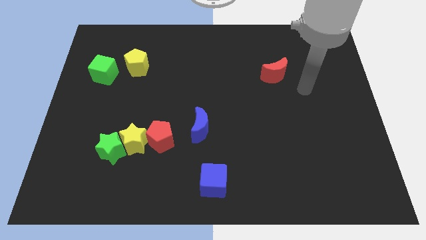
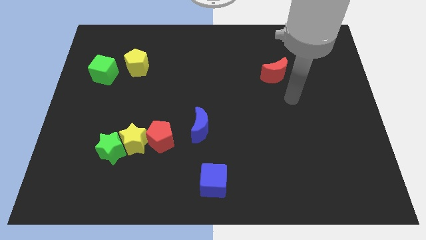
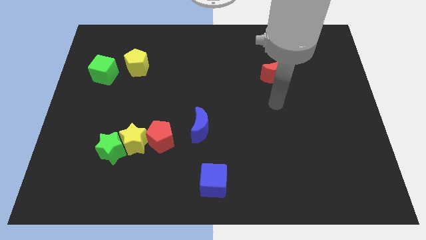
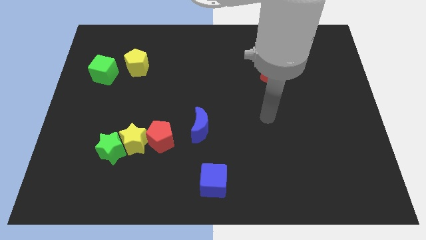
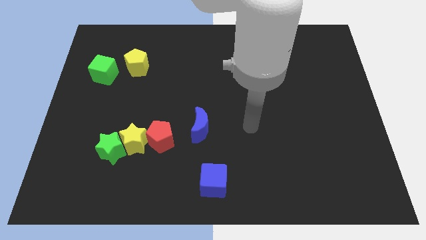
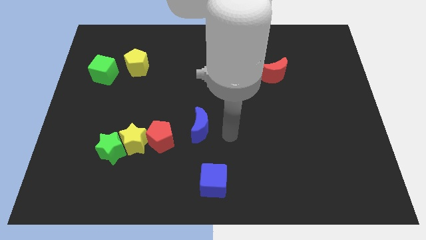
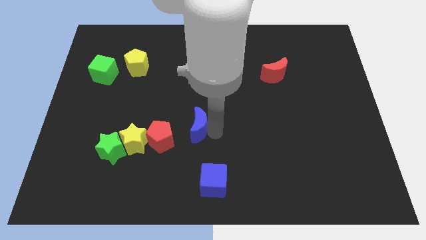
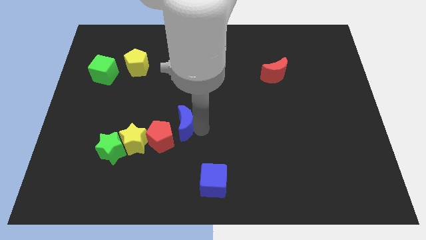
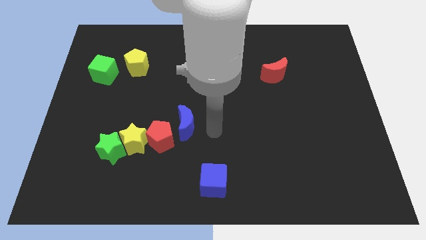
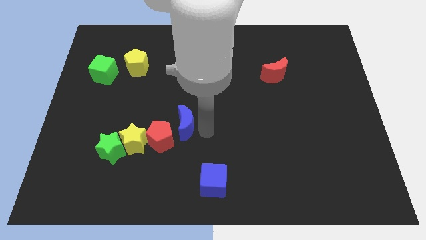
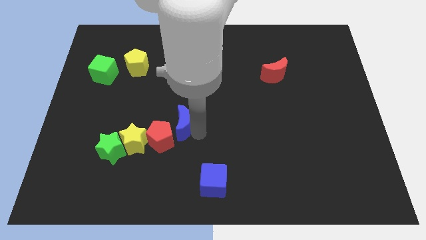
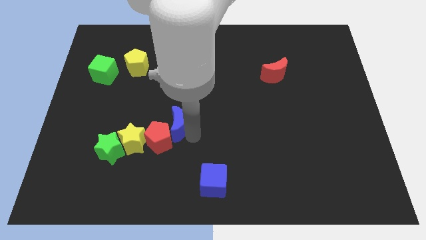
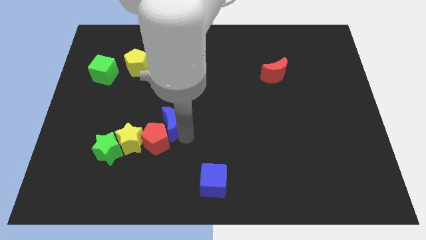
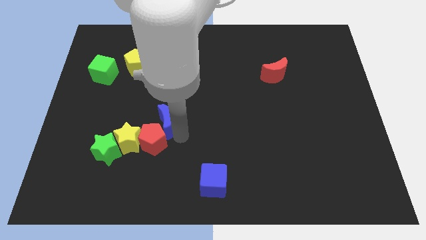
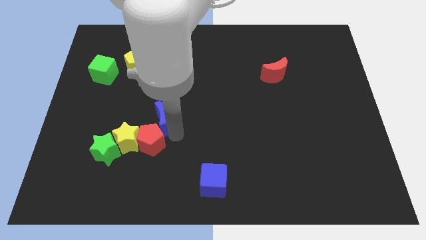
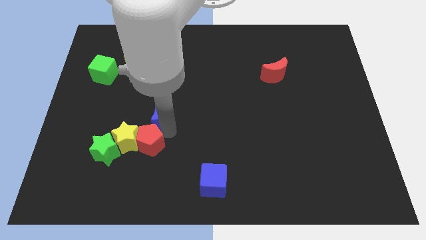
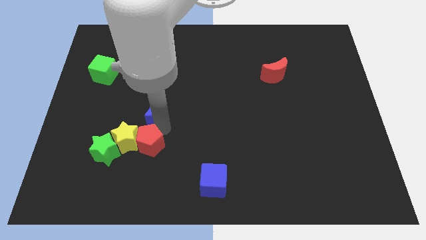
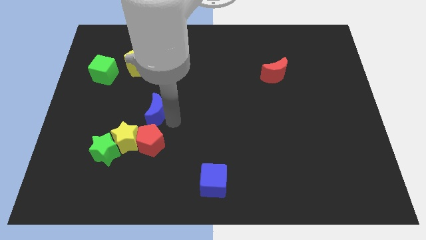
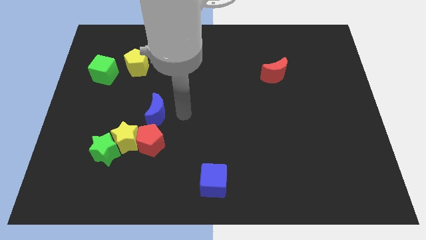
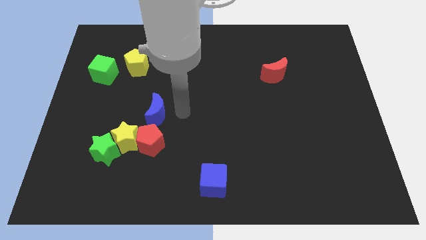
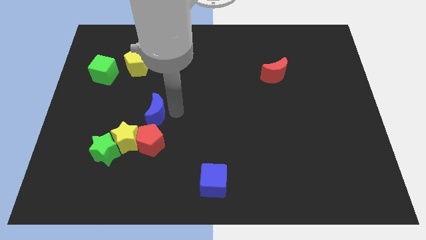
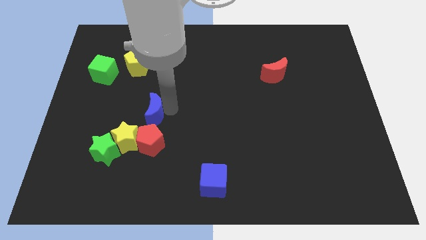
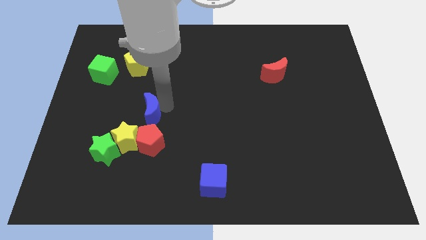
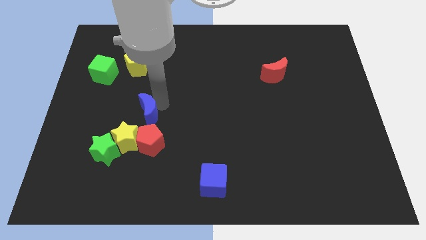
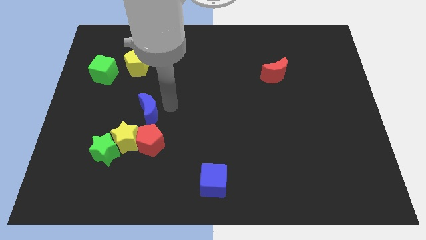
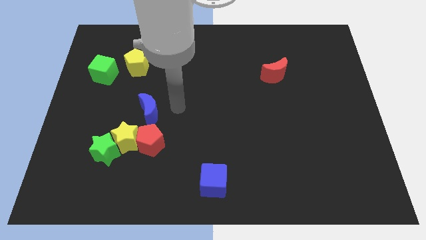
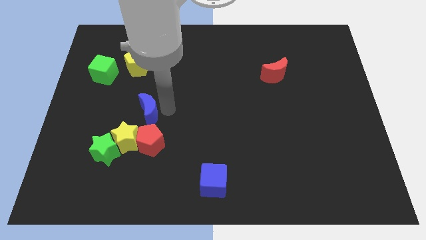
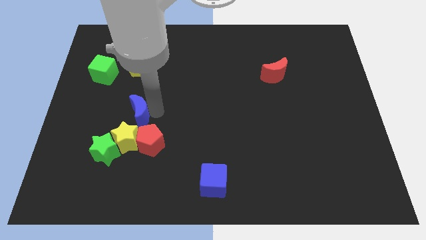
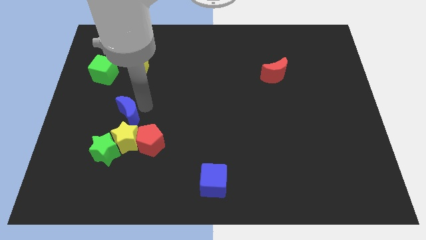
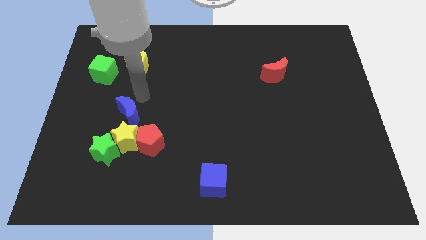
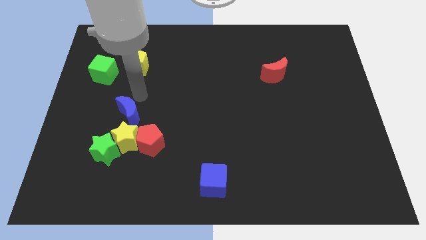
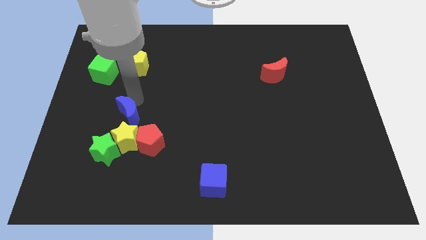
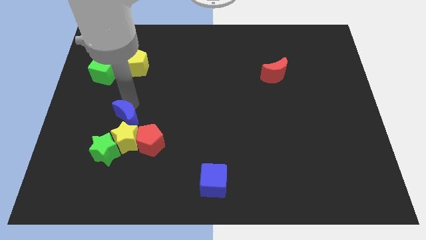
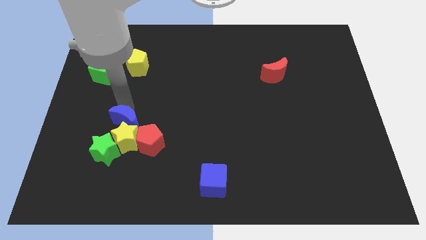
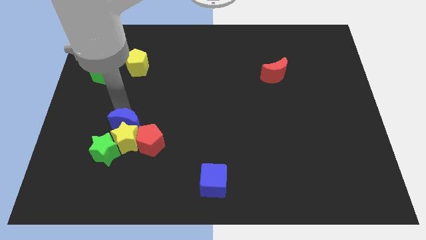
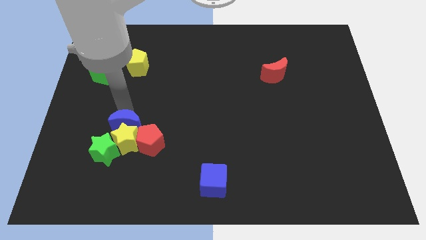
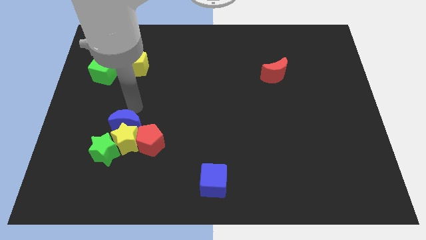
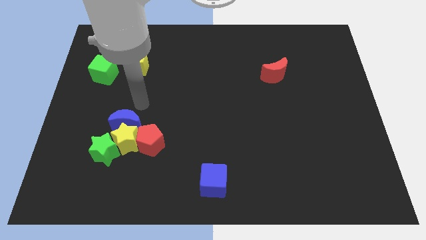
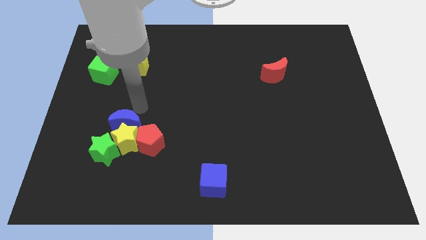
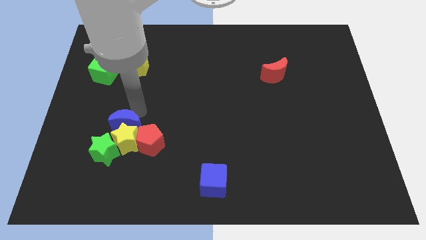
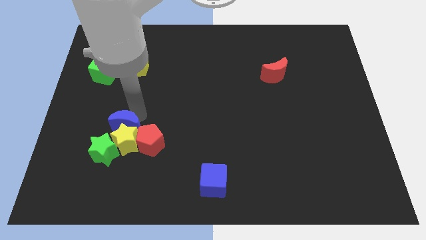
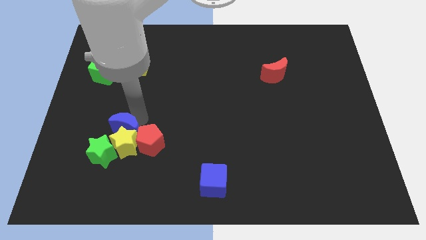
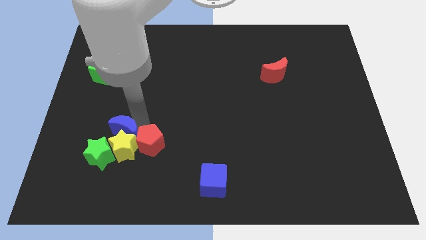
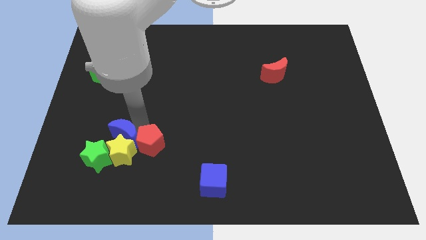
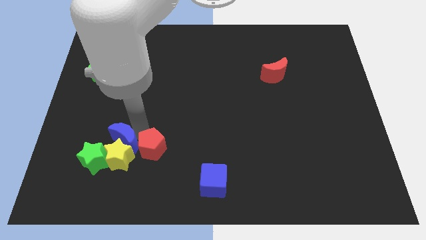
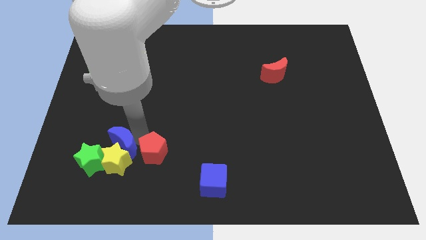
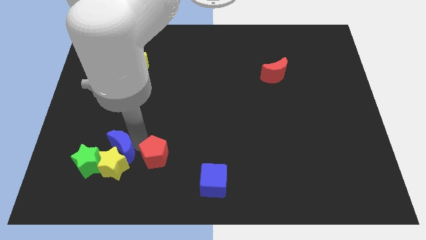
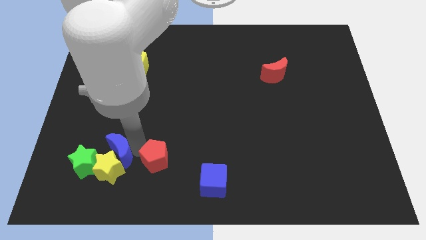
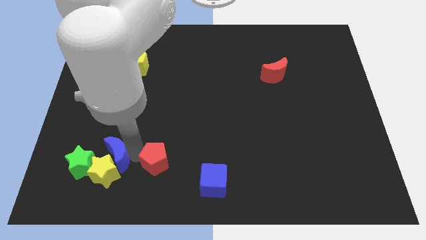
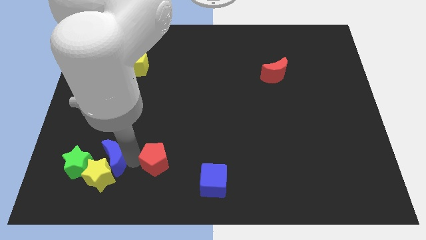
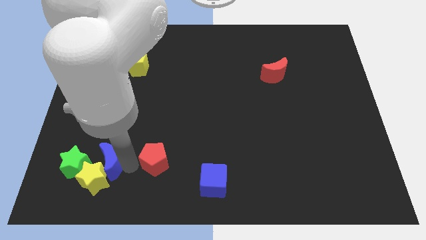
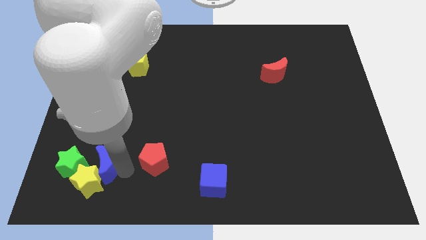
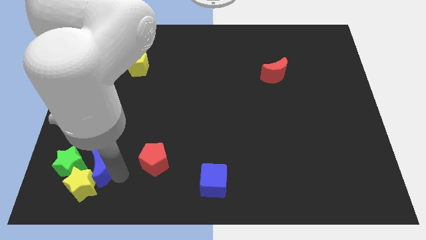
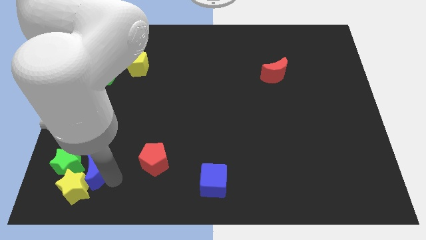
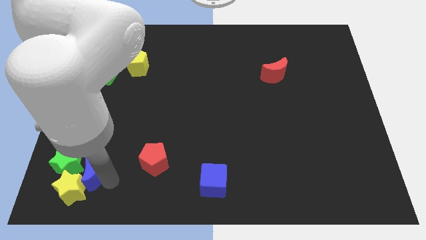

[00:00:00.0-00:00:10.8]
put the blue moon towards the green star

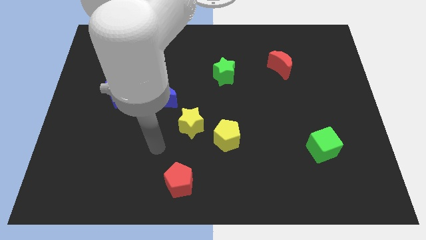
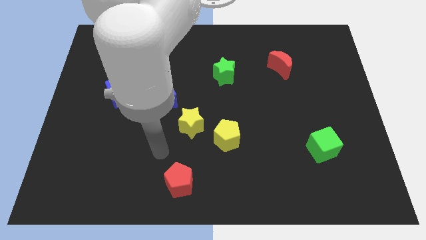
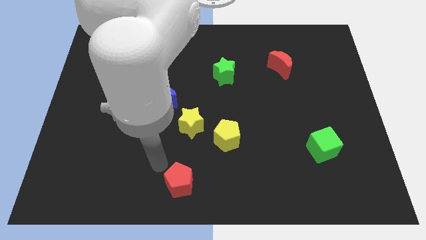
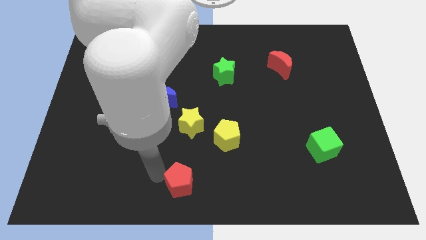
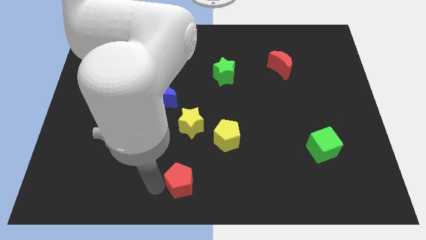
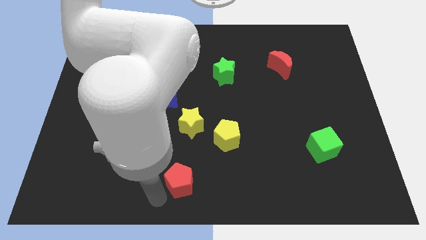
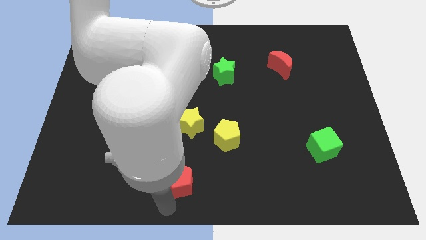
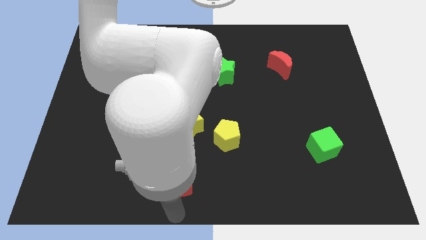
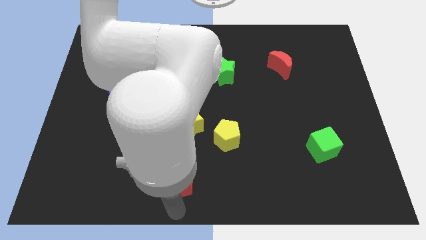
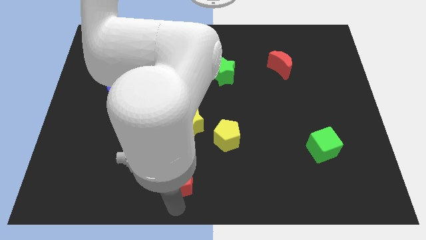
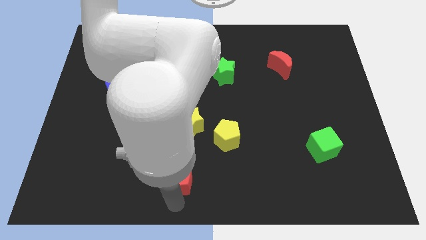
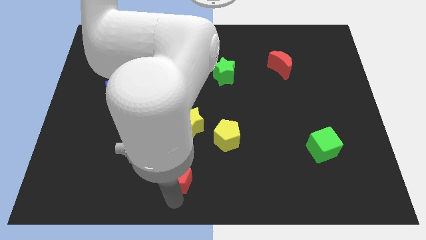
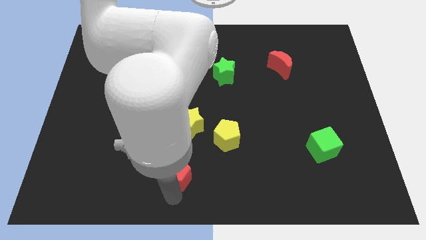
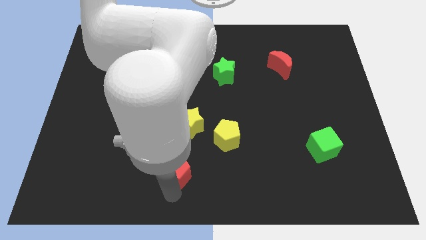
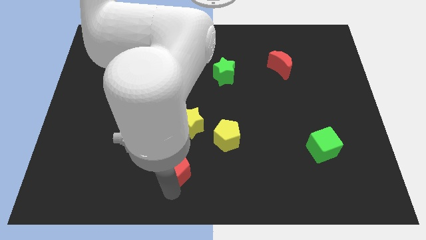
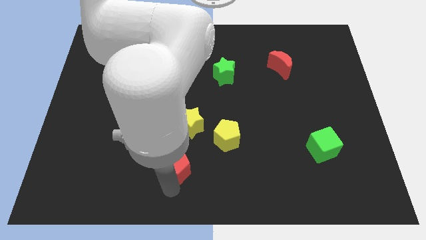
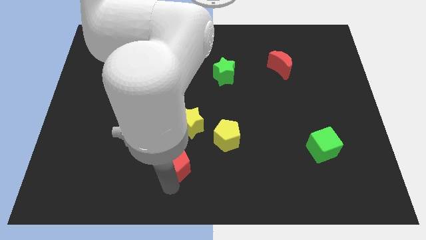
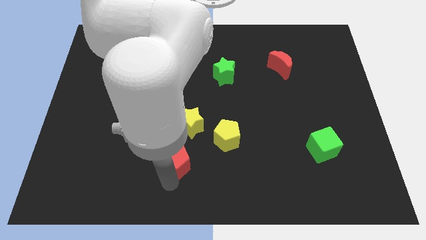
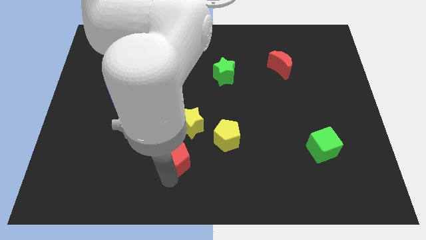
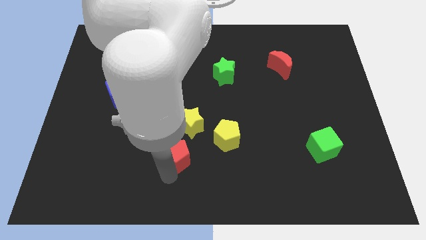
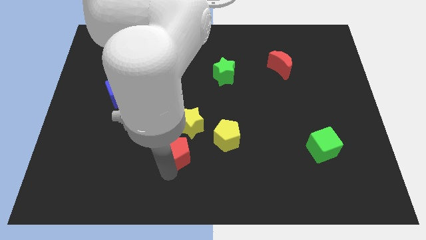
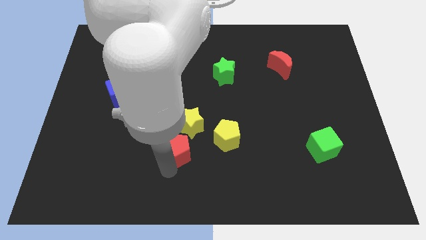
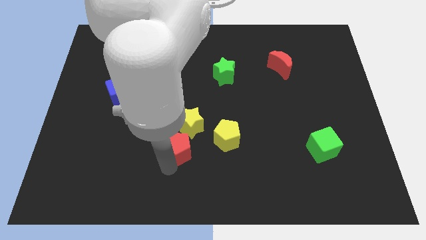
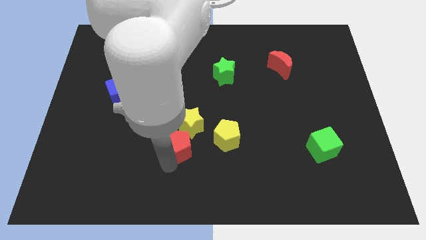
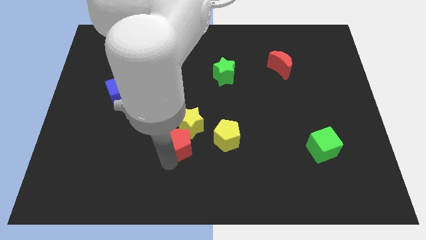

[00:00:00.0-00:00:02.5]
move the red pentagon to the yellow star
